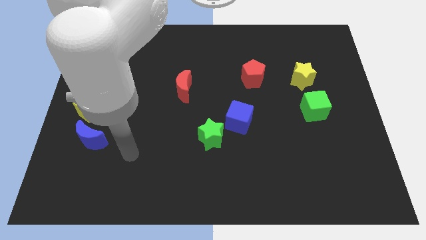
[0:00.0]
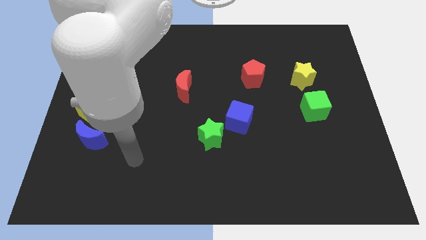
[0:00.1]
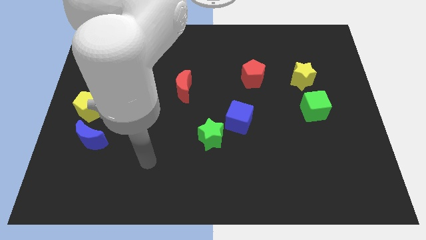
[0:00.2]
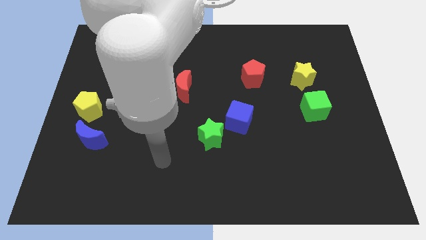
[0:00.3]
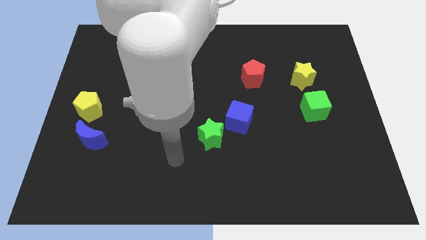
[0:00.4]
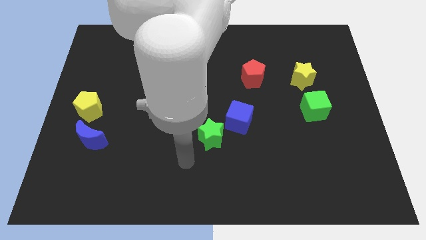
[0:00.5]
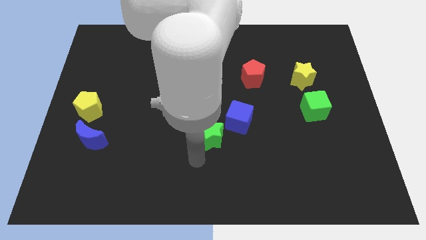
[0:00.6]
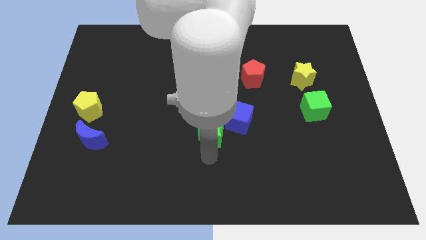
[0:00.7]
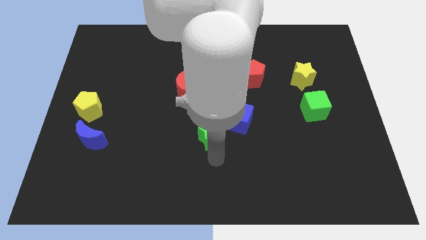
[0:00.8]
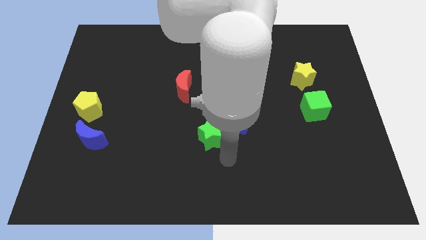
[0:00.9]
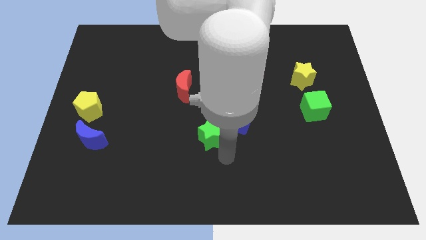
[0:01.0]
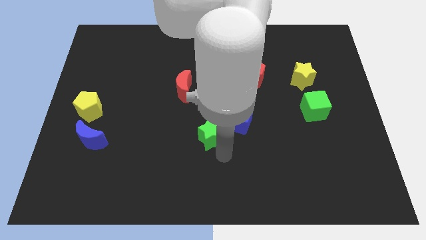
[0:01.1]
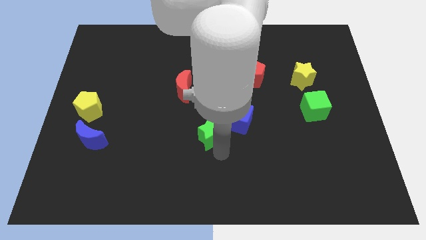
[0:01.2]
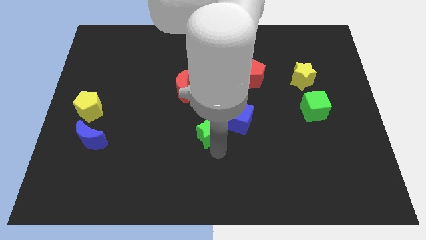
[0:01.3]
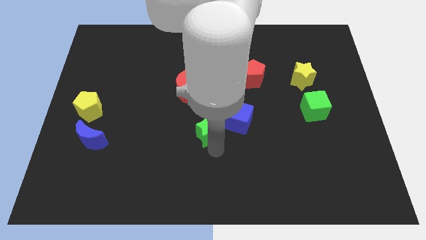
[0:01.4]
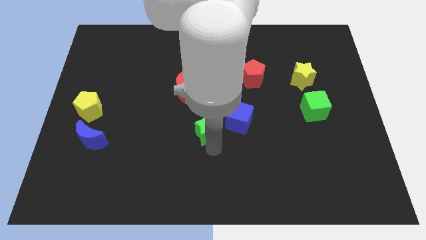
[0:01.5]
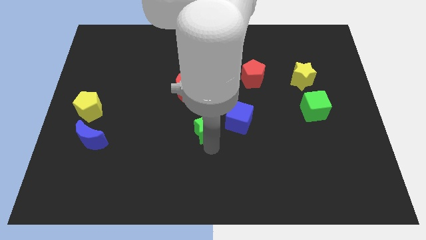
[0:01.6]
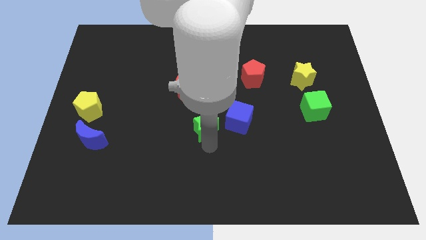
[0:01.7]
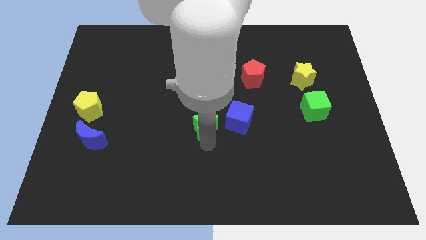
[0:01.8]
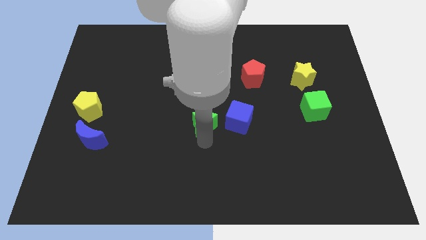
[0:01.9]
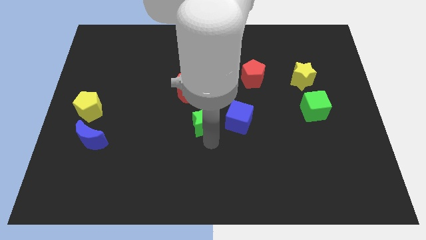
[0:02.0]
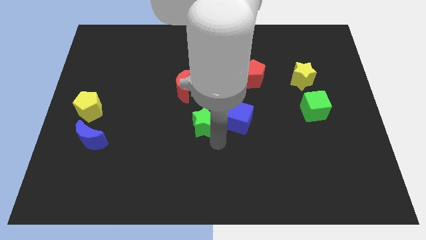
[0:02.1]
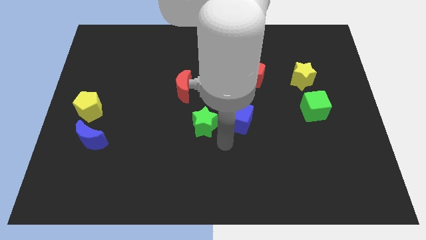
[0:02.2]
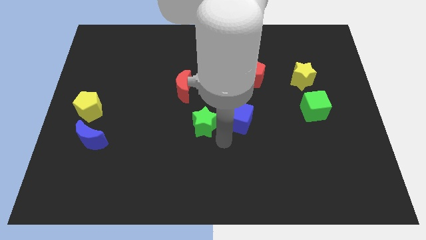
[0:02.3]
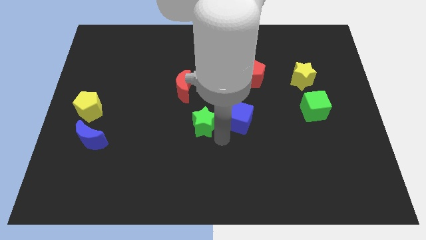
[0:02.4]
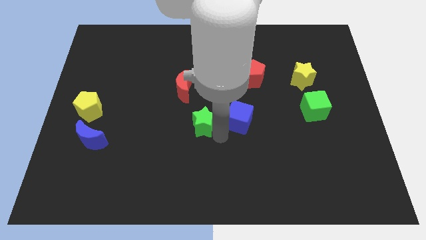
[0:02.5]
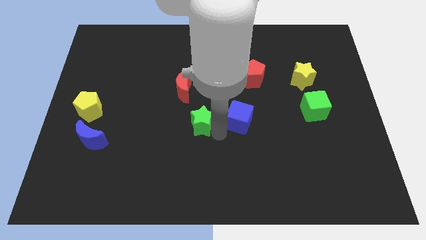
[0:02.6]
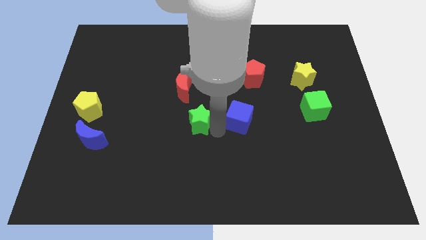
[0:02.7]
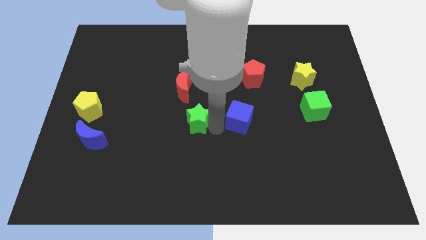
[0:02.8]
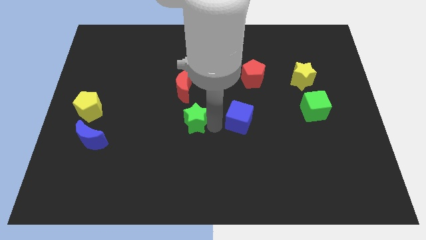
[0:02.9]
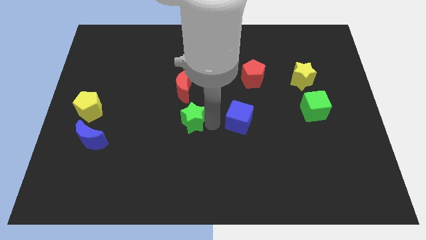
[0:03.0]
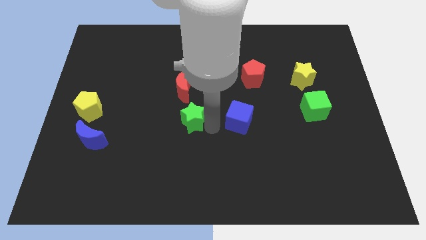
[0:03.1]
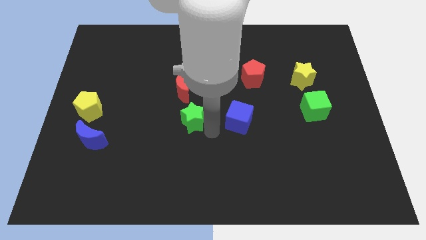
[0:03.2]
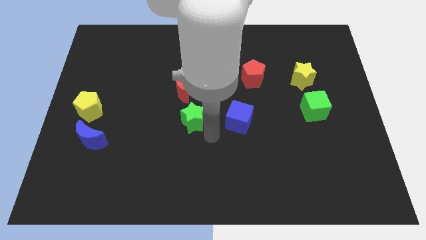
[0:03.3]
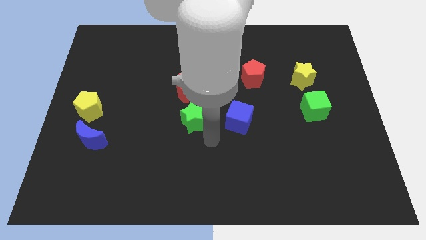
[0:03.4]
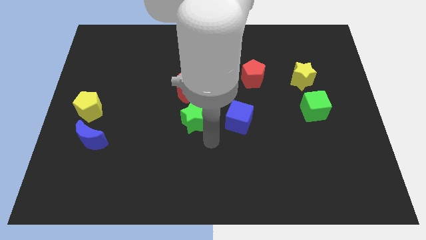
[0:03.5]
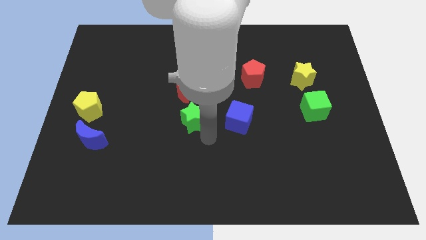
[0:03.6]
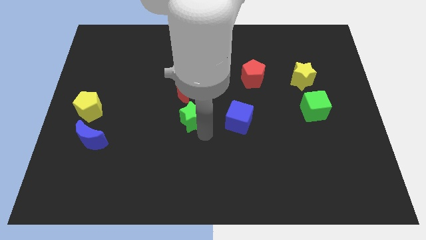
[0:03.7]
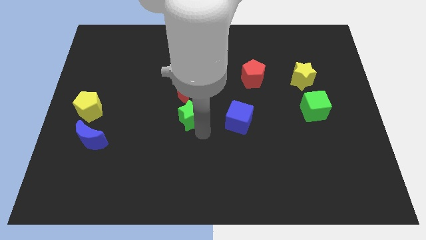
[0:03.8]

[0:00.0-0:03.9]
slide the green star somewhat upwards and left

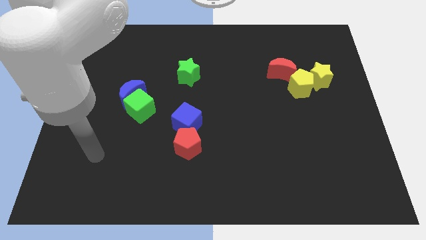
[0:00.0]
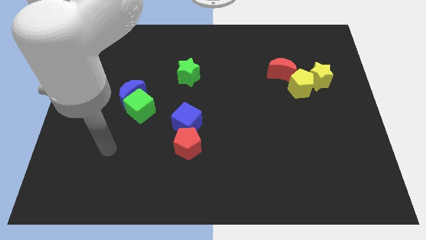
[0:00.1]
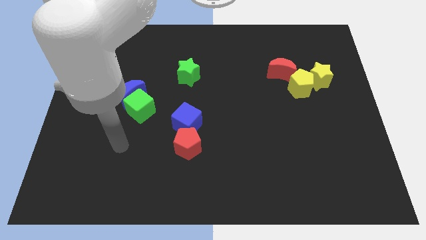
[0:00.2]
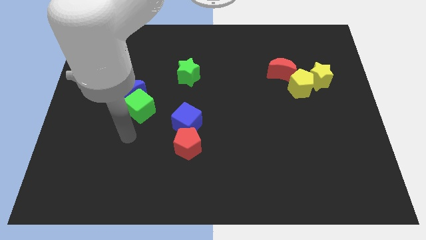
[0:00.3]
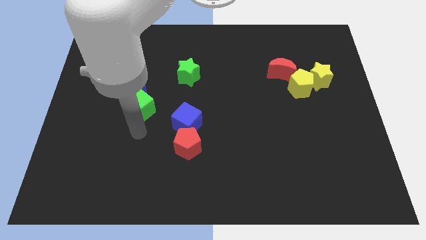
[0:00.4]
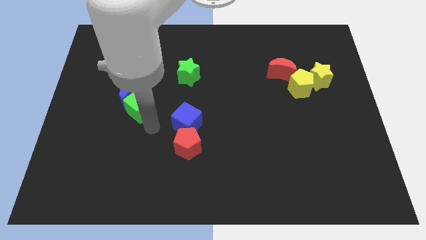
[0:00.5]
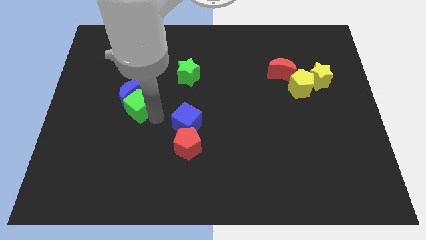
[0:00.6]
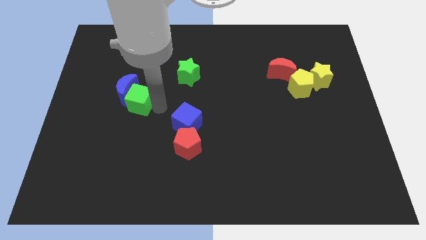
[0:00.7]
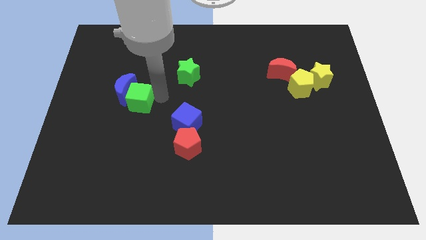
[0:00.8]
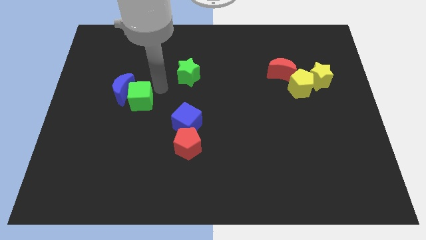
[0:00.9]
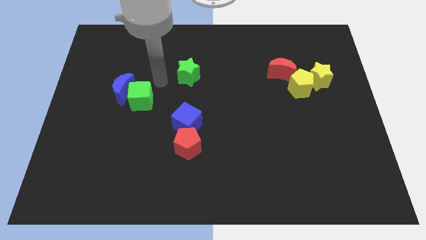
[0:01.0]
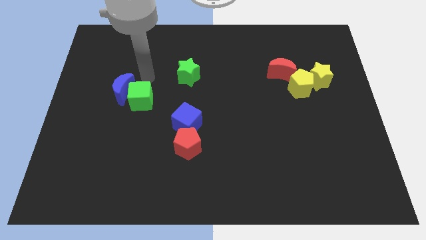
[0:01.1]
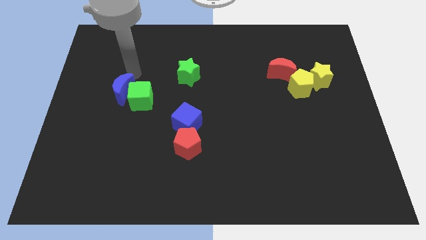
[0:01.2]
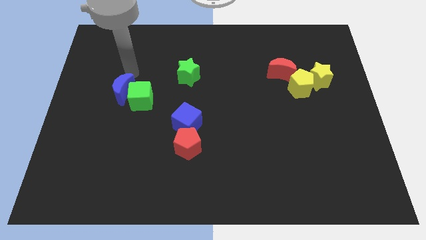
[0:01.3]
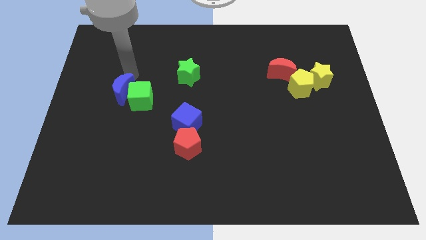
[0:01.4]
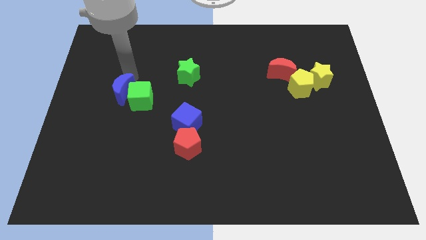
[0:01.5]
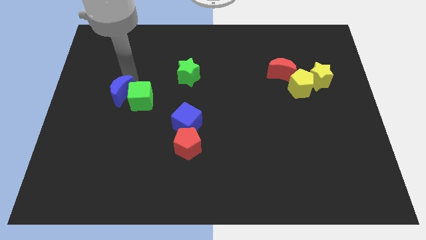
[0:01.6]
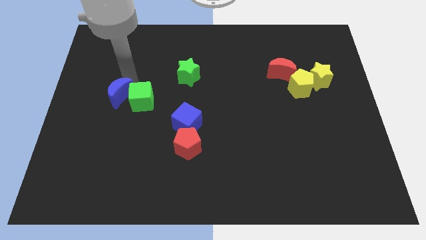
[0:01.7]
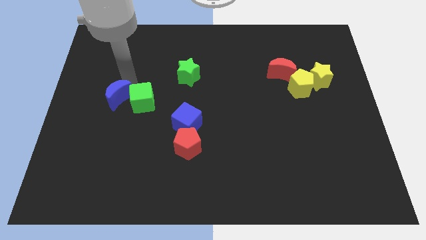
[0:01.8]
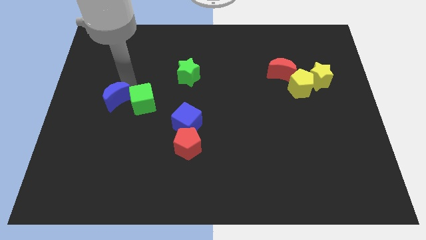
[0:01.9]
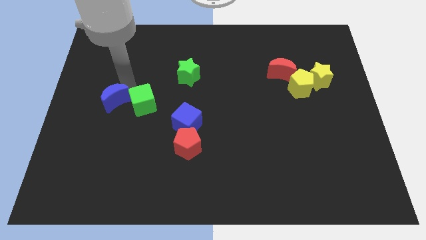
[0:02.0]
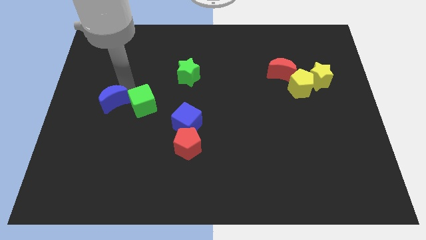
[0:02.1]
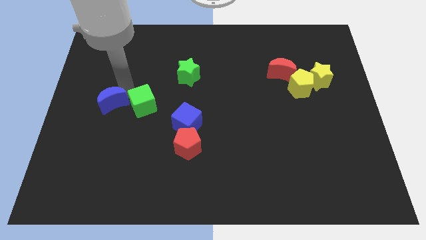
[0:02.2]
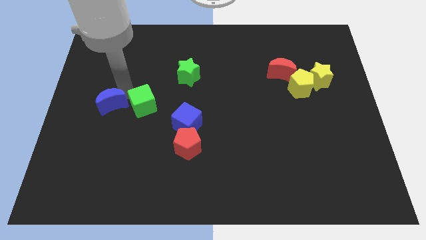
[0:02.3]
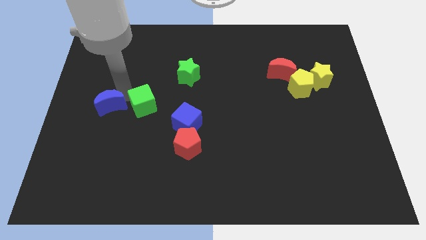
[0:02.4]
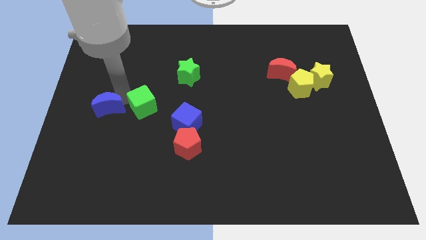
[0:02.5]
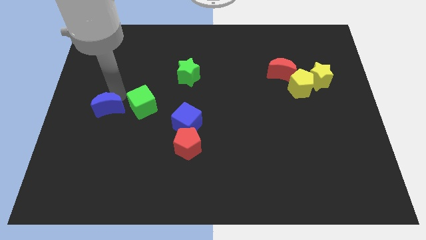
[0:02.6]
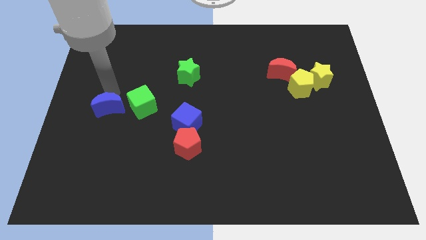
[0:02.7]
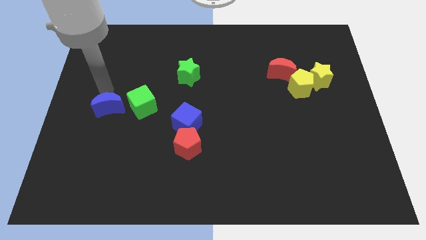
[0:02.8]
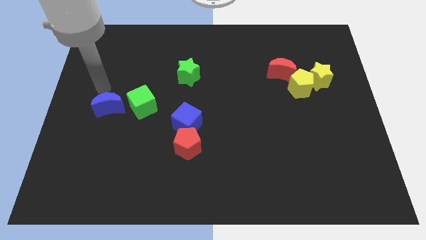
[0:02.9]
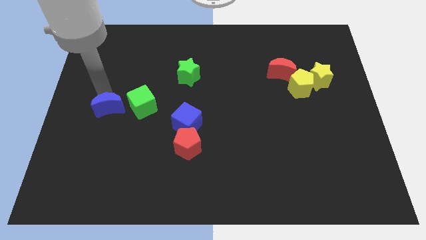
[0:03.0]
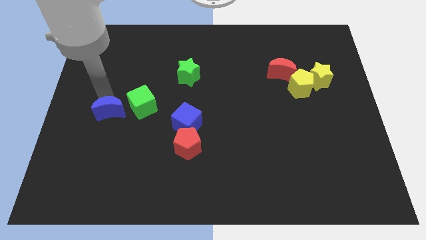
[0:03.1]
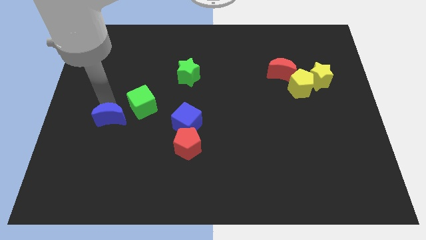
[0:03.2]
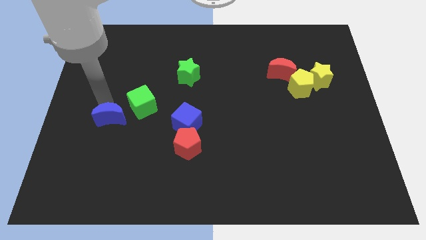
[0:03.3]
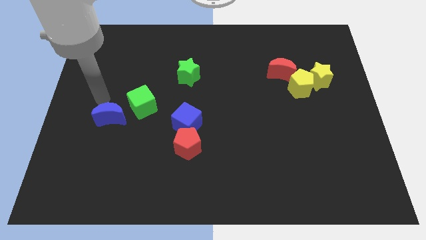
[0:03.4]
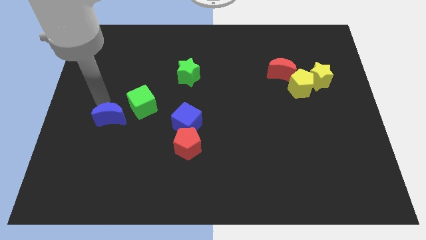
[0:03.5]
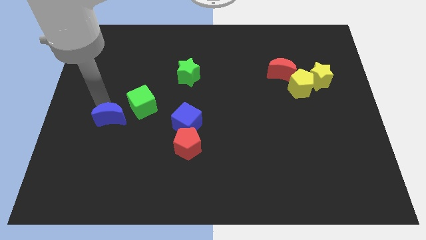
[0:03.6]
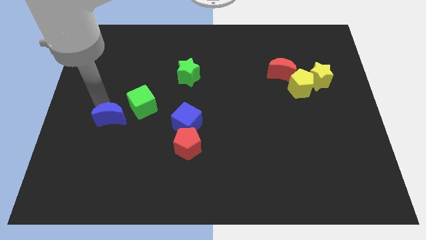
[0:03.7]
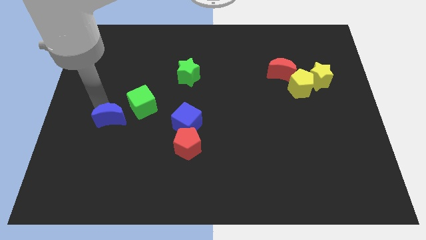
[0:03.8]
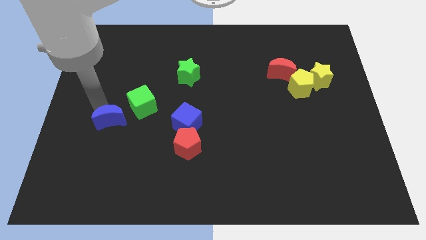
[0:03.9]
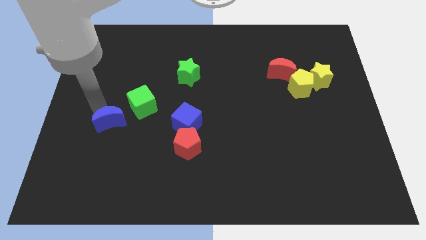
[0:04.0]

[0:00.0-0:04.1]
slightly push the blue moon down

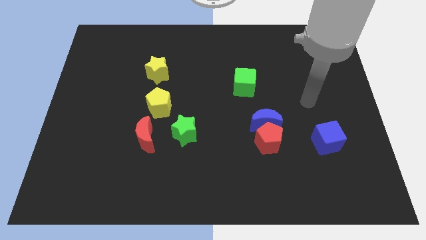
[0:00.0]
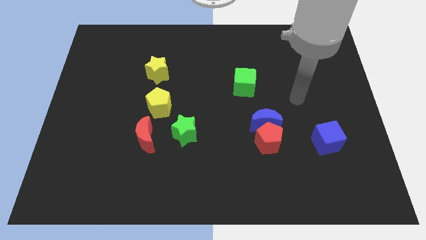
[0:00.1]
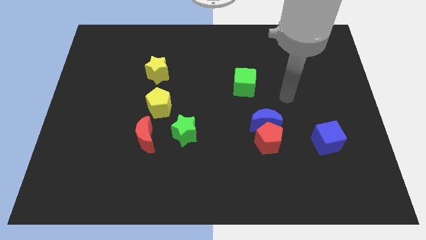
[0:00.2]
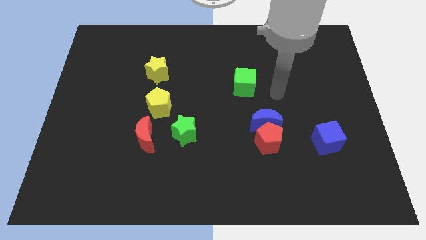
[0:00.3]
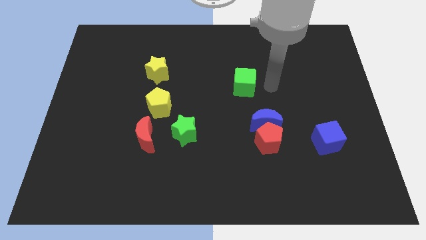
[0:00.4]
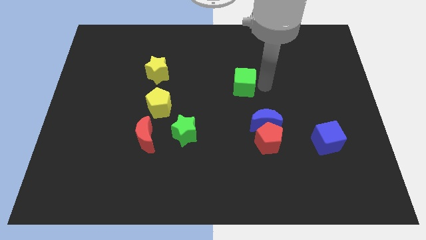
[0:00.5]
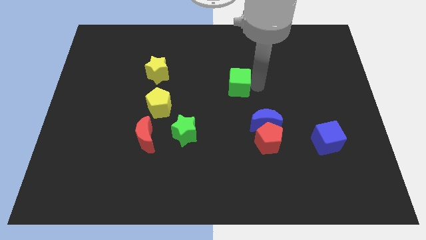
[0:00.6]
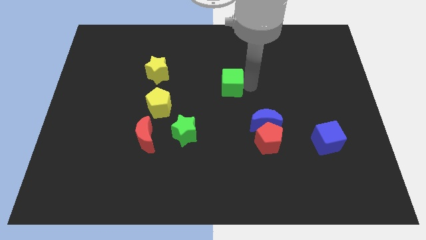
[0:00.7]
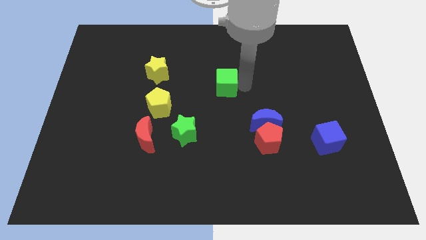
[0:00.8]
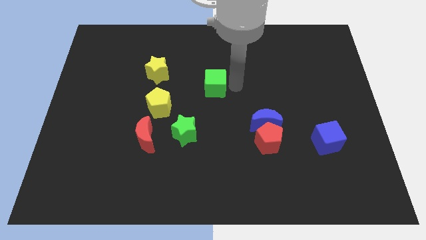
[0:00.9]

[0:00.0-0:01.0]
slightly push the green cube left
